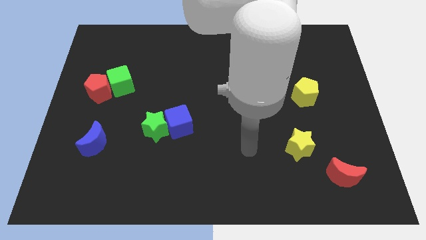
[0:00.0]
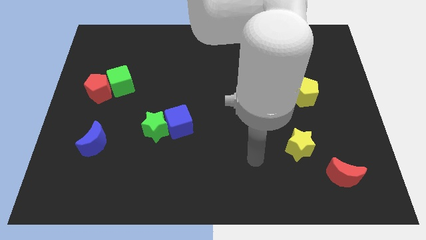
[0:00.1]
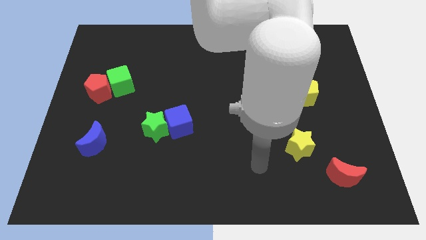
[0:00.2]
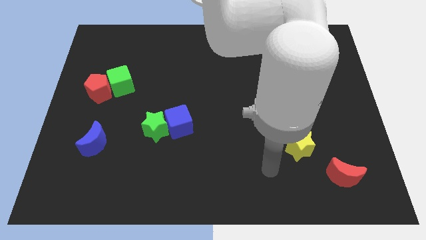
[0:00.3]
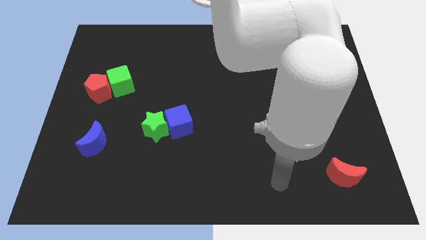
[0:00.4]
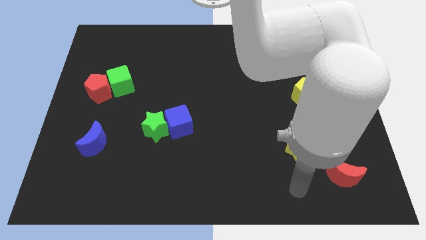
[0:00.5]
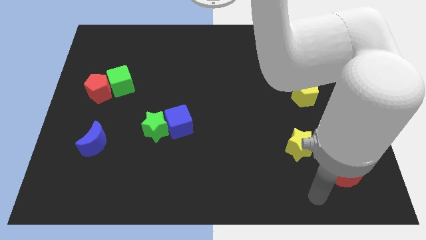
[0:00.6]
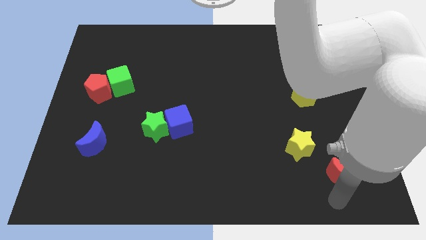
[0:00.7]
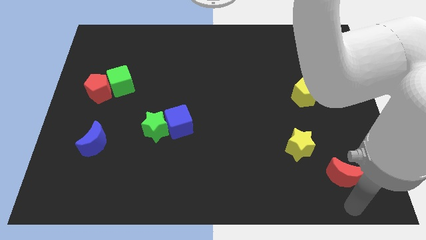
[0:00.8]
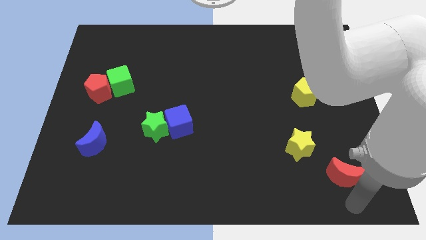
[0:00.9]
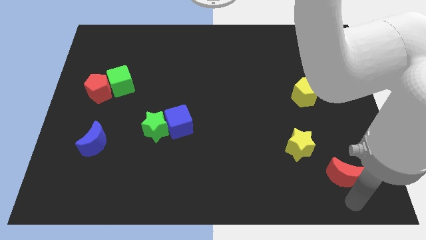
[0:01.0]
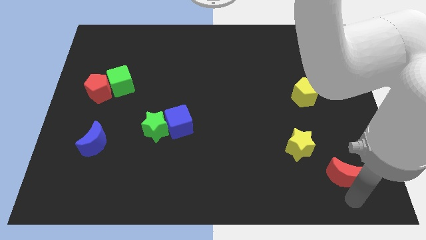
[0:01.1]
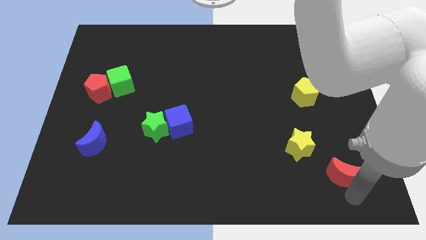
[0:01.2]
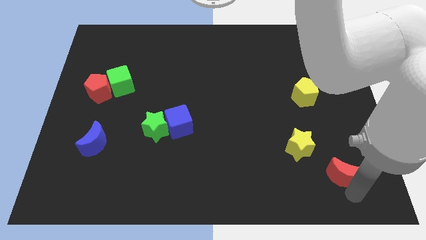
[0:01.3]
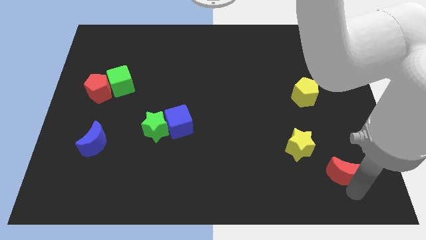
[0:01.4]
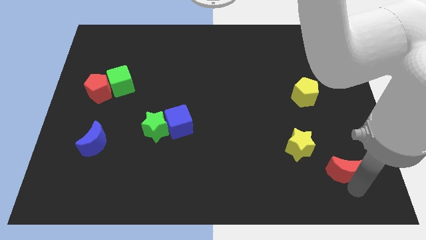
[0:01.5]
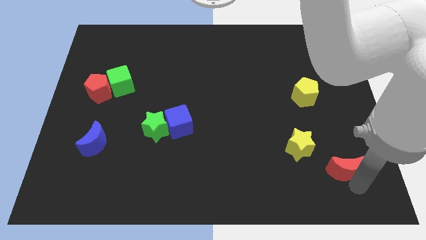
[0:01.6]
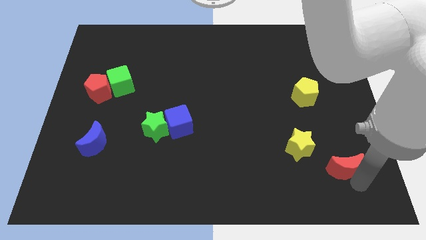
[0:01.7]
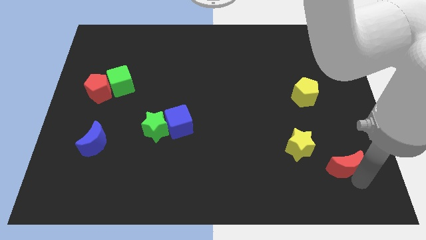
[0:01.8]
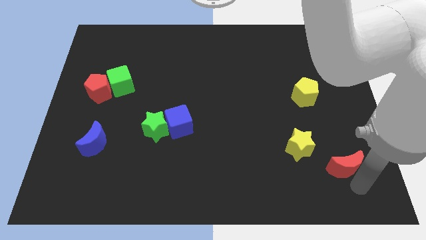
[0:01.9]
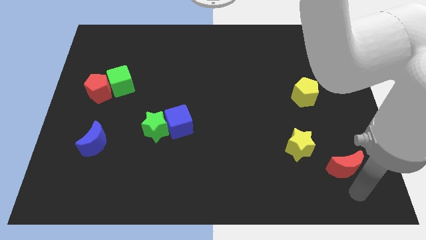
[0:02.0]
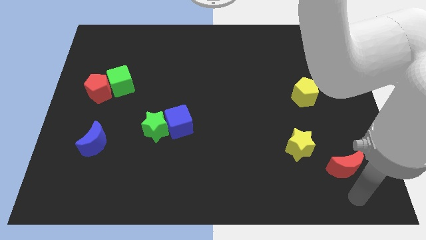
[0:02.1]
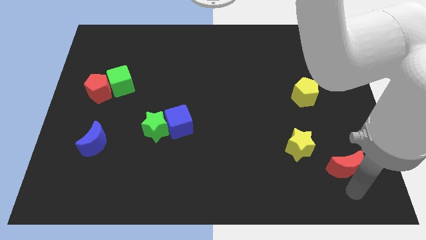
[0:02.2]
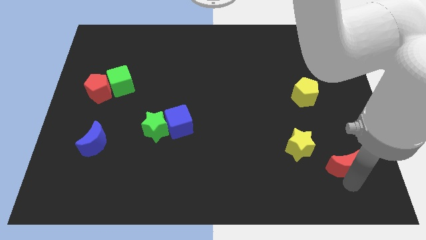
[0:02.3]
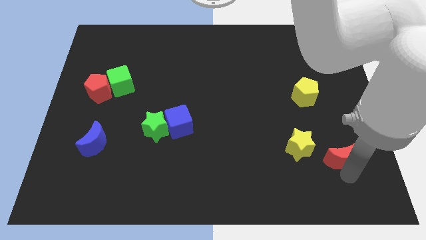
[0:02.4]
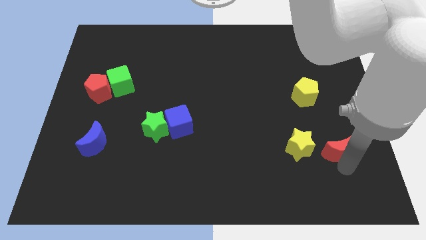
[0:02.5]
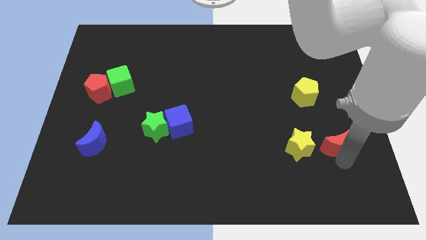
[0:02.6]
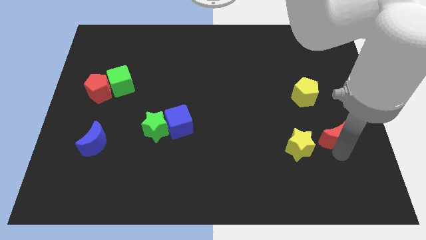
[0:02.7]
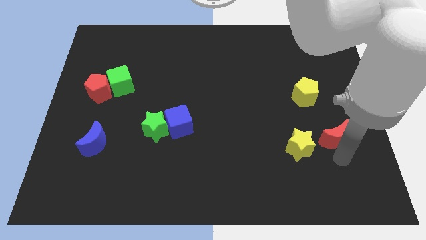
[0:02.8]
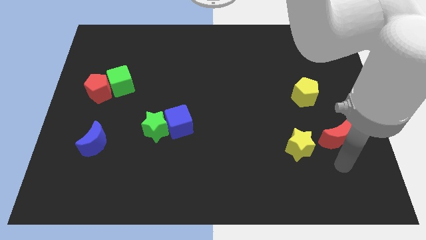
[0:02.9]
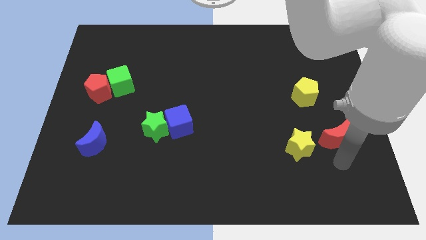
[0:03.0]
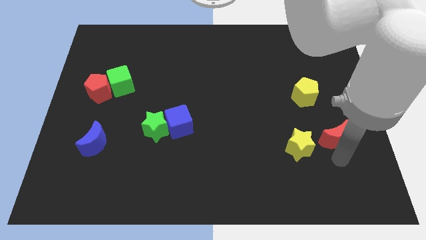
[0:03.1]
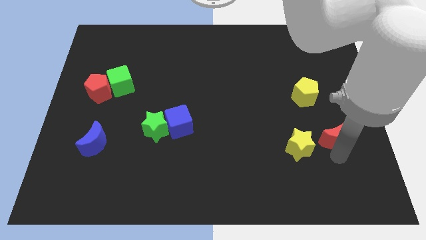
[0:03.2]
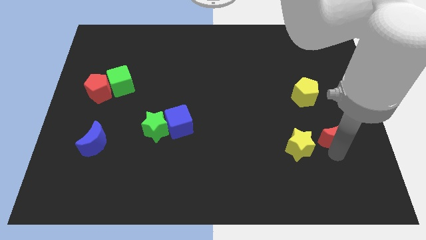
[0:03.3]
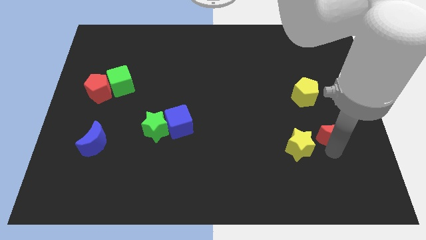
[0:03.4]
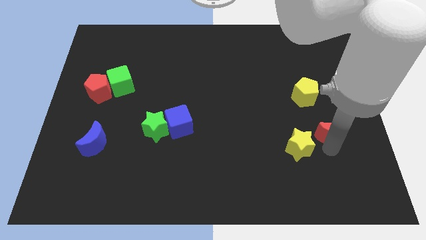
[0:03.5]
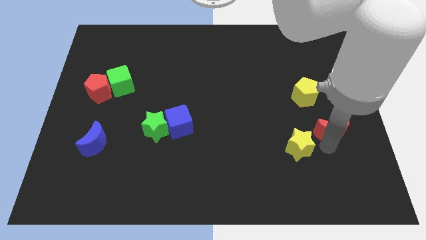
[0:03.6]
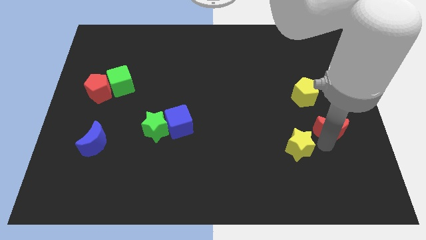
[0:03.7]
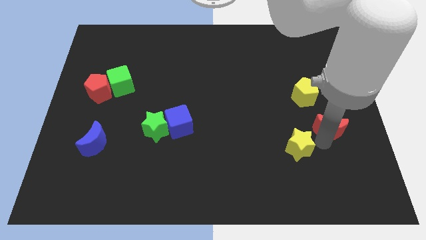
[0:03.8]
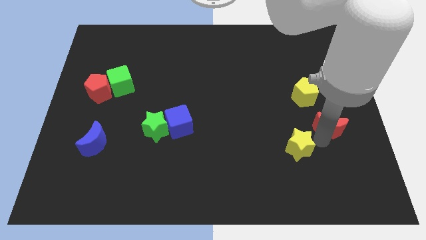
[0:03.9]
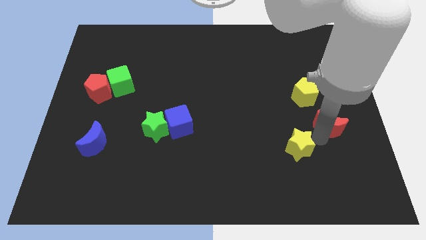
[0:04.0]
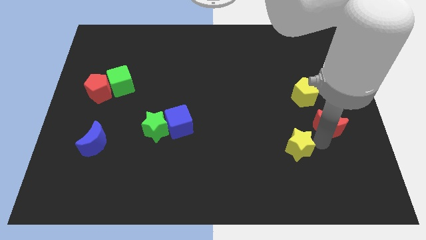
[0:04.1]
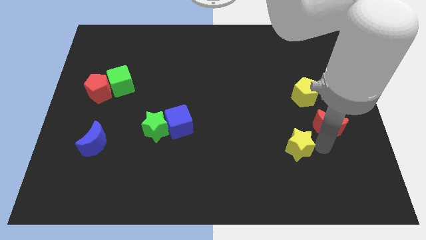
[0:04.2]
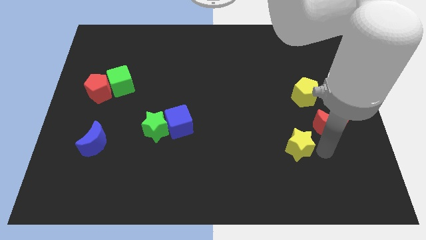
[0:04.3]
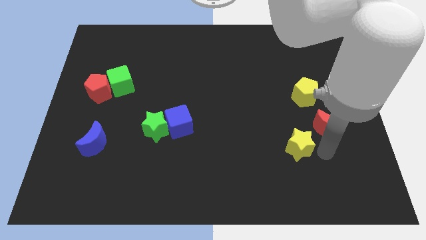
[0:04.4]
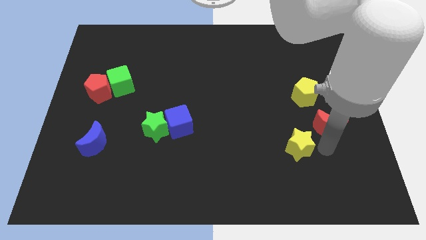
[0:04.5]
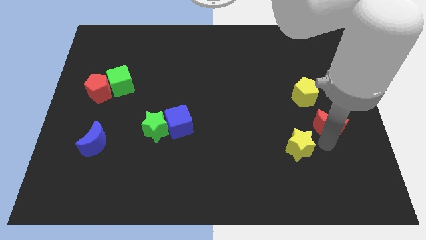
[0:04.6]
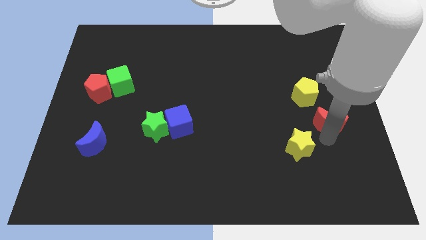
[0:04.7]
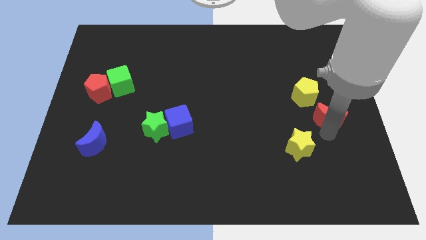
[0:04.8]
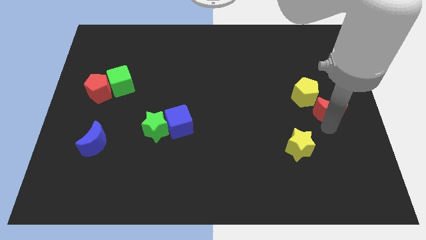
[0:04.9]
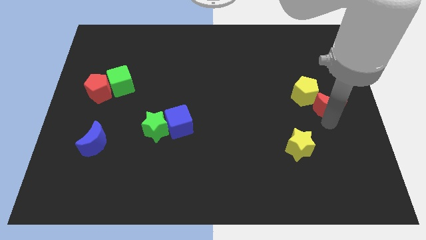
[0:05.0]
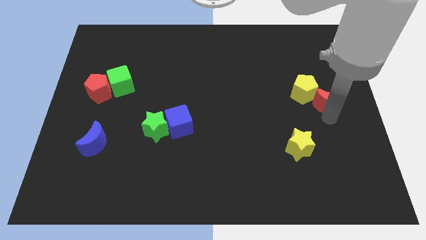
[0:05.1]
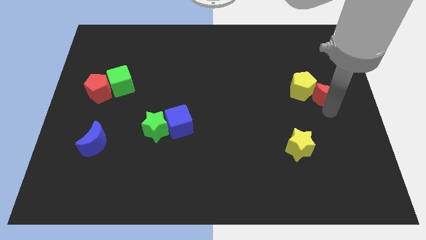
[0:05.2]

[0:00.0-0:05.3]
slide the red moon up

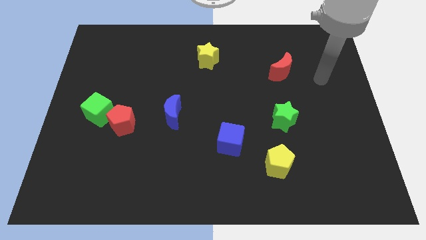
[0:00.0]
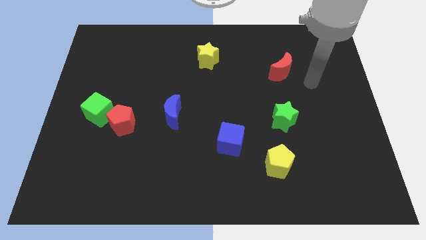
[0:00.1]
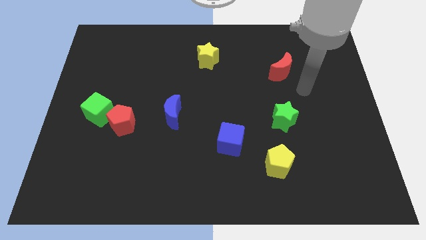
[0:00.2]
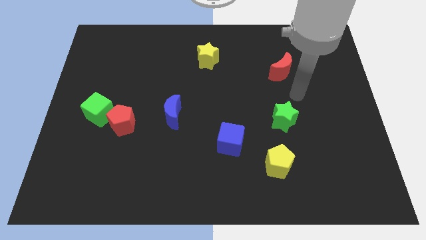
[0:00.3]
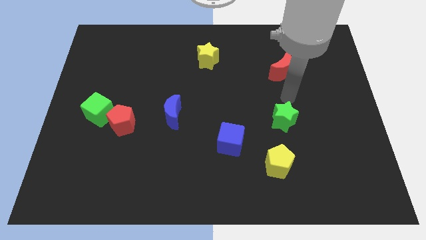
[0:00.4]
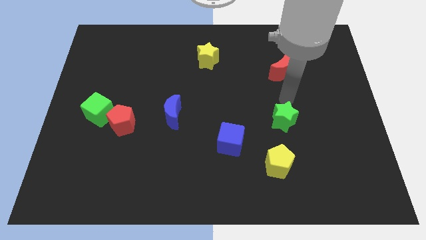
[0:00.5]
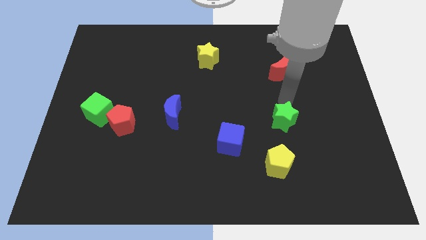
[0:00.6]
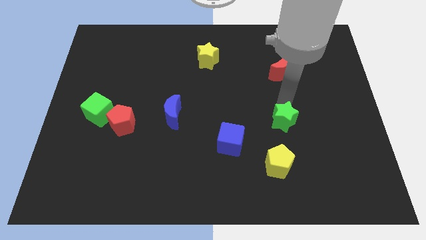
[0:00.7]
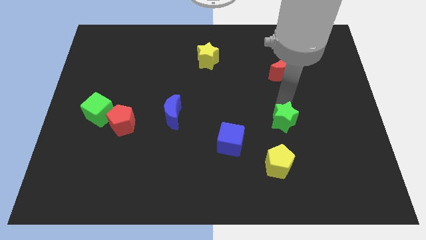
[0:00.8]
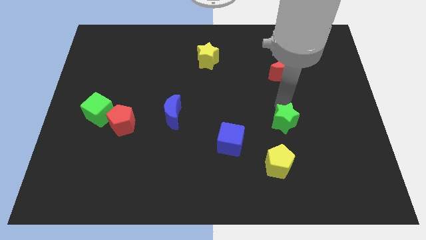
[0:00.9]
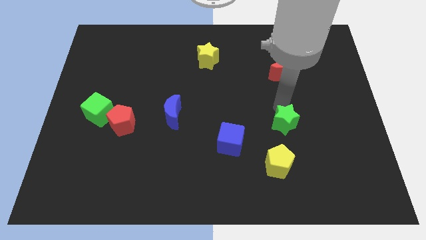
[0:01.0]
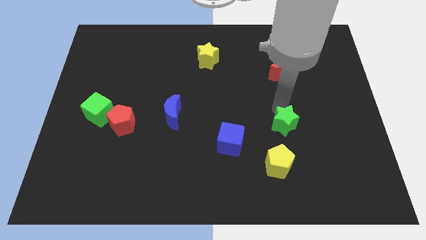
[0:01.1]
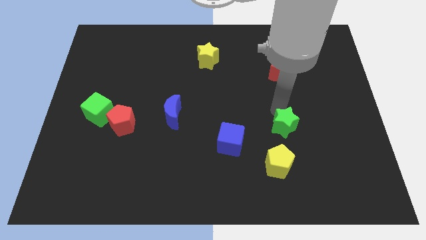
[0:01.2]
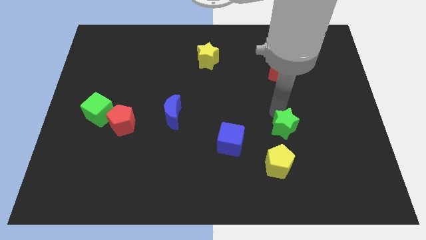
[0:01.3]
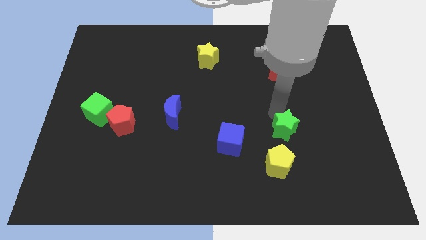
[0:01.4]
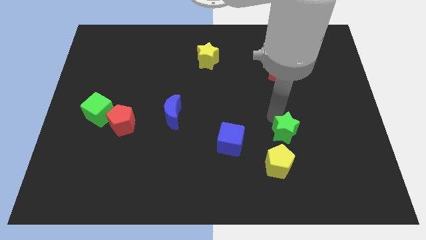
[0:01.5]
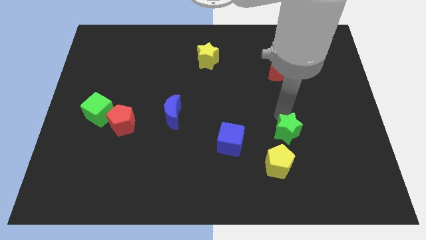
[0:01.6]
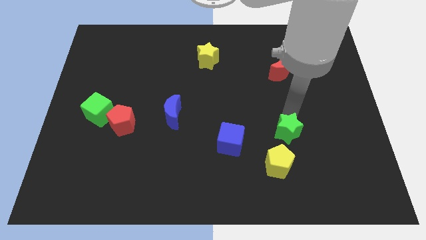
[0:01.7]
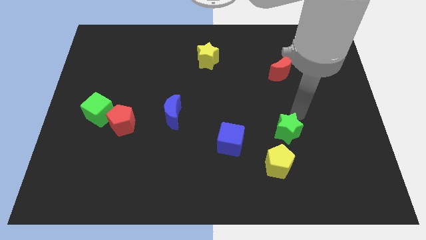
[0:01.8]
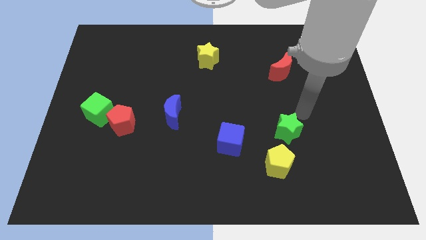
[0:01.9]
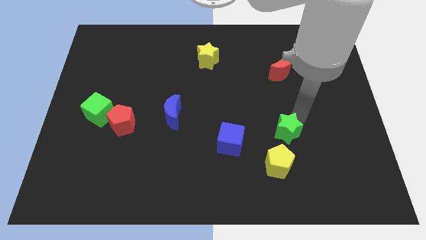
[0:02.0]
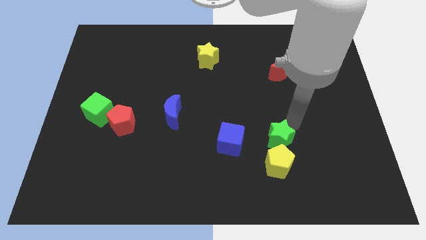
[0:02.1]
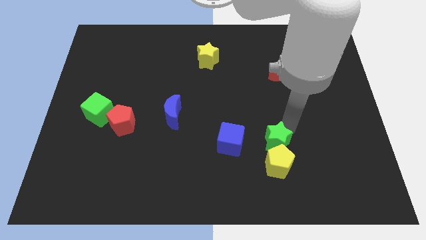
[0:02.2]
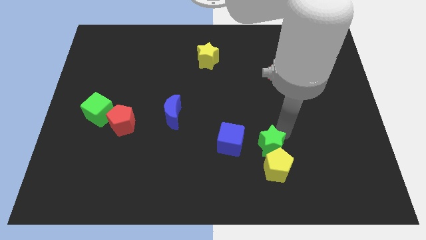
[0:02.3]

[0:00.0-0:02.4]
slightly push the green star down and to the left
